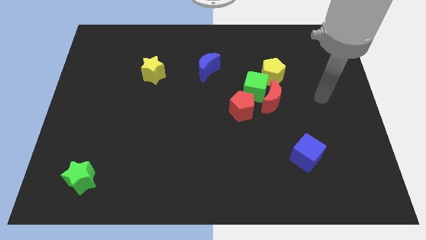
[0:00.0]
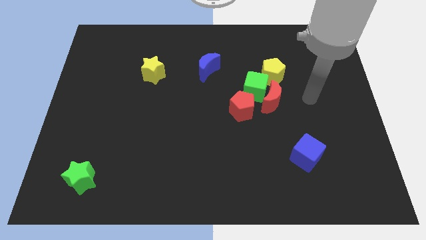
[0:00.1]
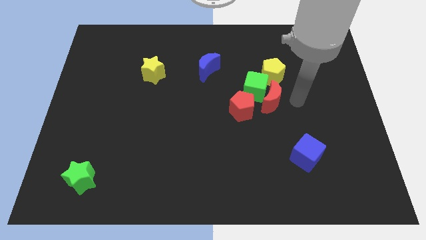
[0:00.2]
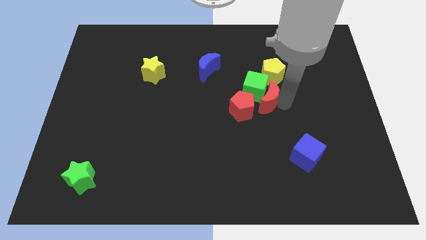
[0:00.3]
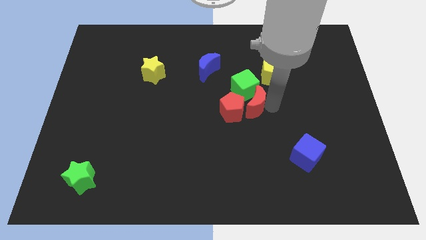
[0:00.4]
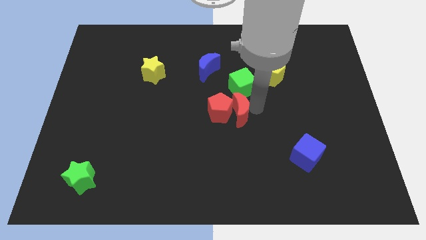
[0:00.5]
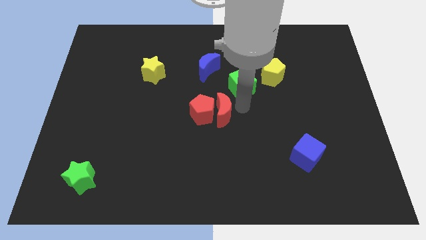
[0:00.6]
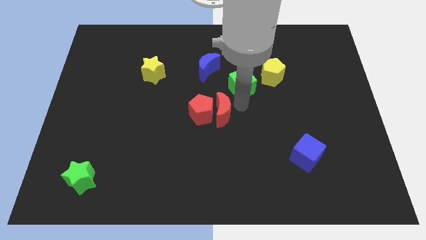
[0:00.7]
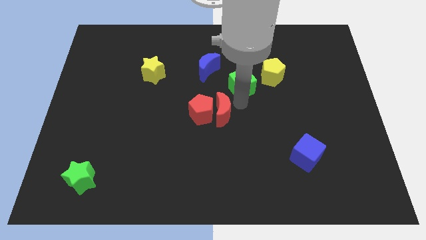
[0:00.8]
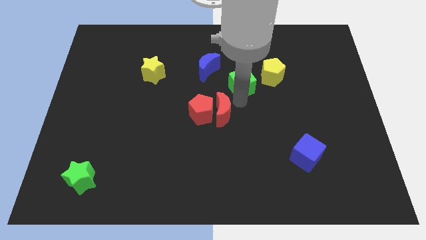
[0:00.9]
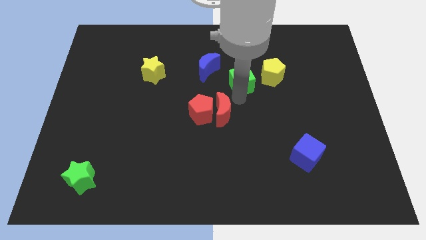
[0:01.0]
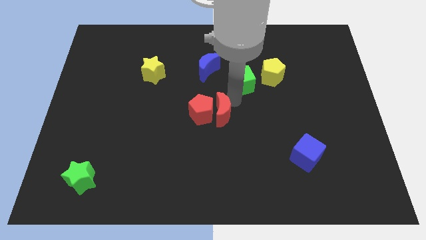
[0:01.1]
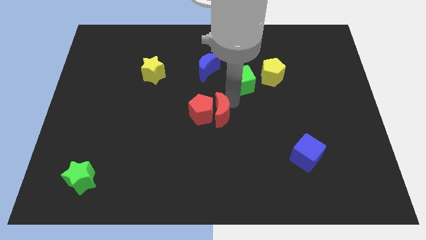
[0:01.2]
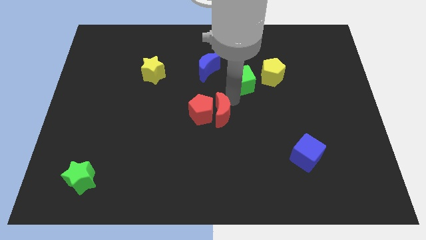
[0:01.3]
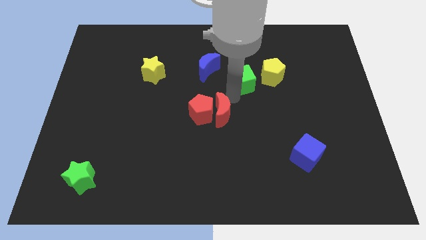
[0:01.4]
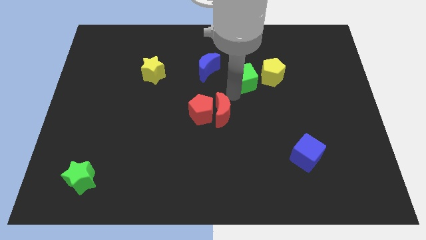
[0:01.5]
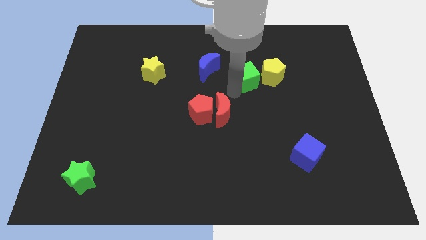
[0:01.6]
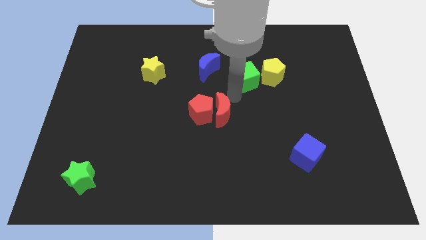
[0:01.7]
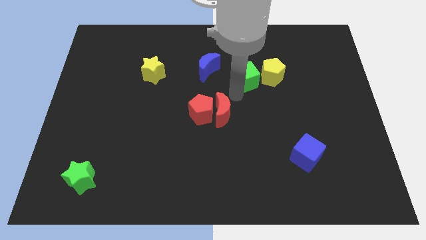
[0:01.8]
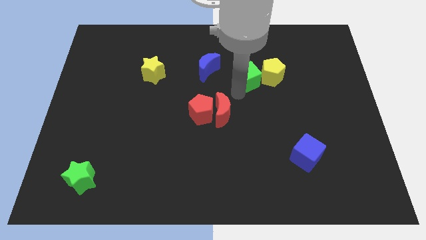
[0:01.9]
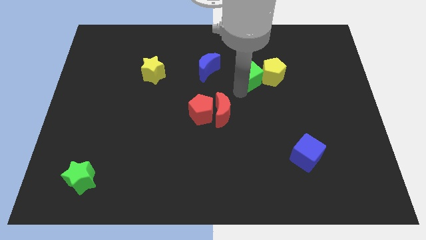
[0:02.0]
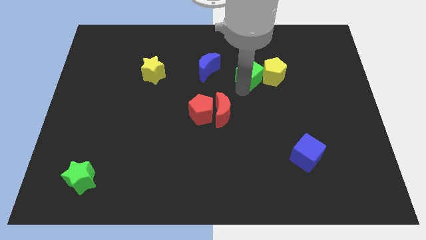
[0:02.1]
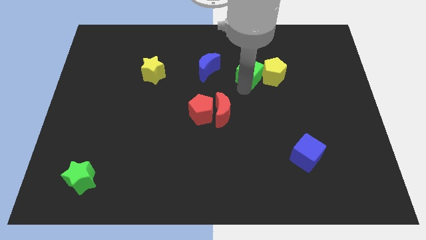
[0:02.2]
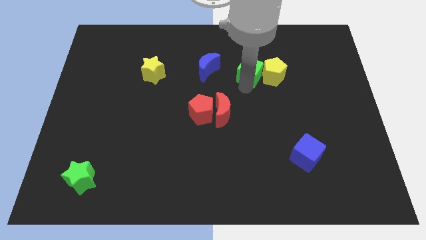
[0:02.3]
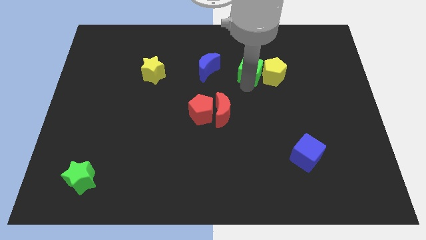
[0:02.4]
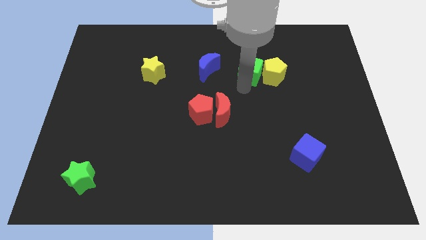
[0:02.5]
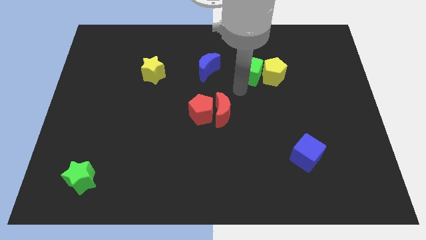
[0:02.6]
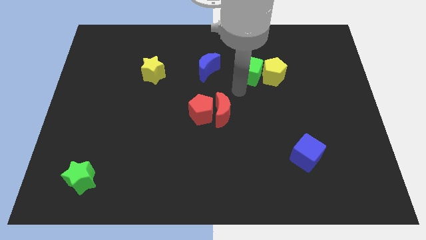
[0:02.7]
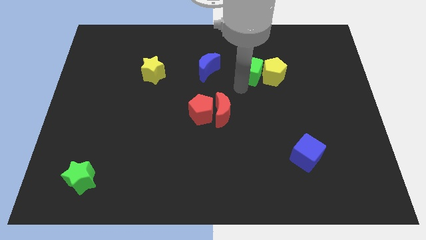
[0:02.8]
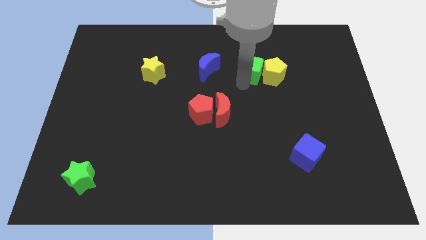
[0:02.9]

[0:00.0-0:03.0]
move the green cube away from the group of blocks

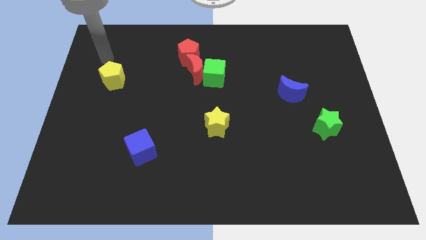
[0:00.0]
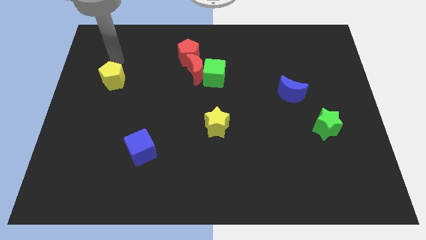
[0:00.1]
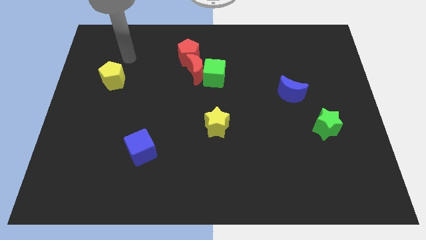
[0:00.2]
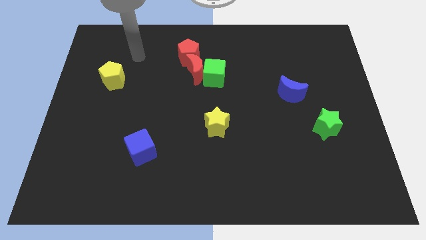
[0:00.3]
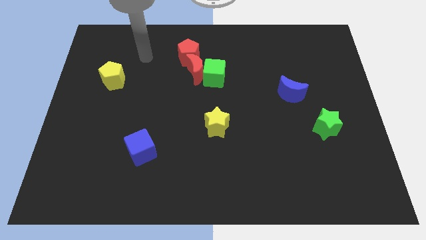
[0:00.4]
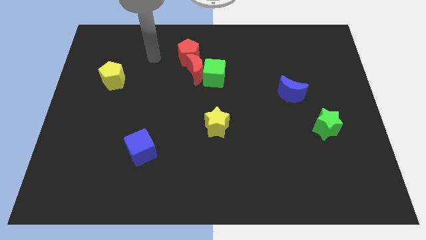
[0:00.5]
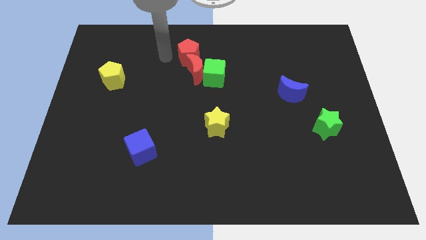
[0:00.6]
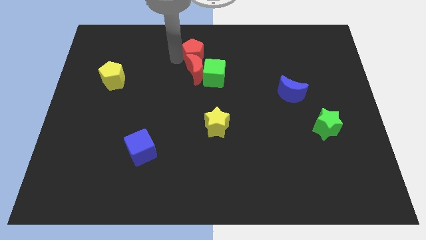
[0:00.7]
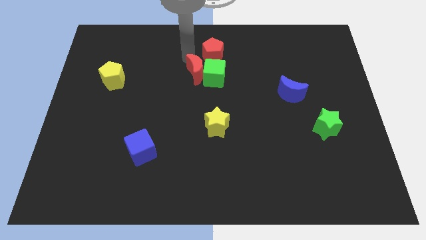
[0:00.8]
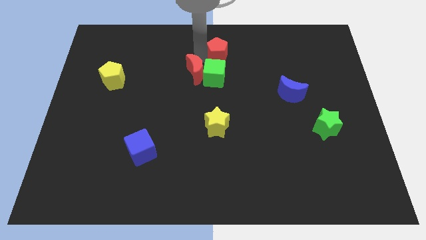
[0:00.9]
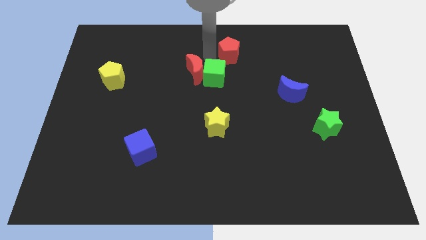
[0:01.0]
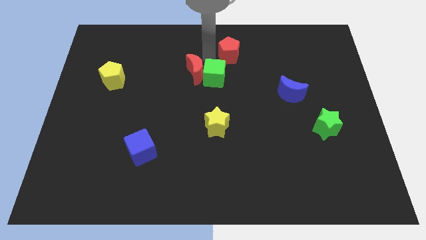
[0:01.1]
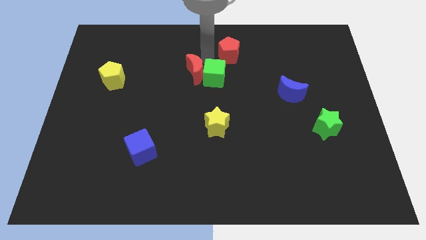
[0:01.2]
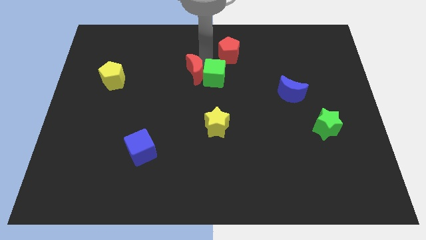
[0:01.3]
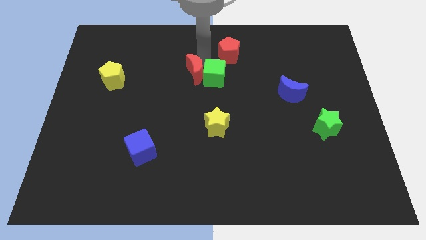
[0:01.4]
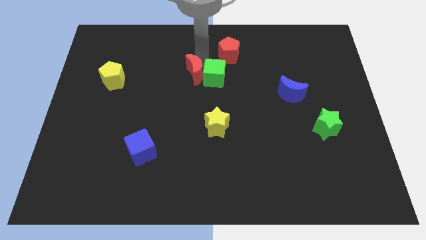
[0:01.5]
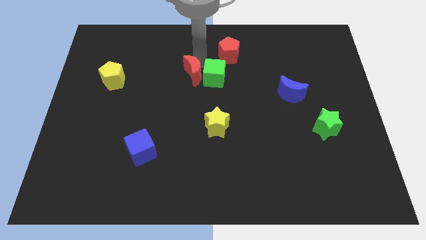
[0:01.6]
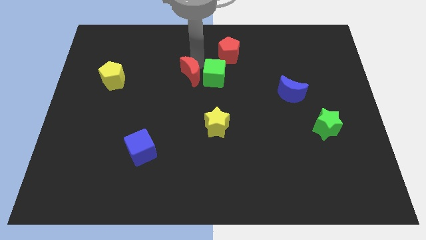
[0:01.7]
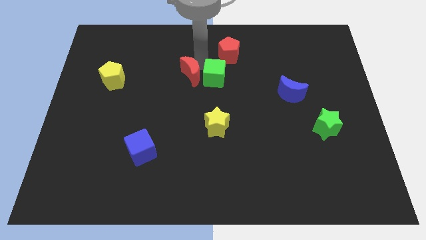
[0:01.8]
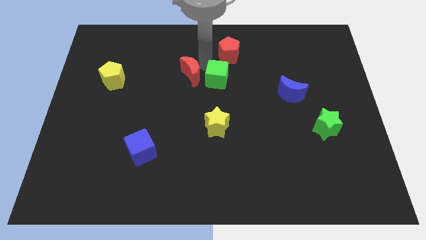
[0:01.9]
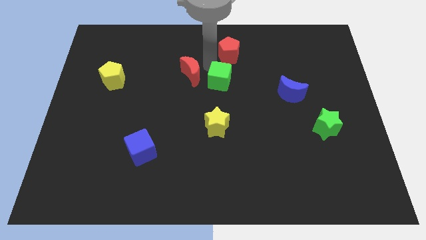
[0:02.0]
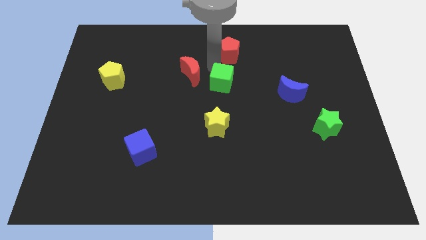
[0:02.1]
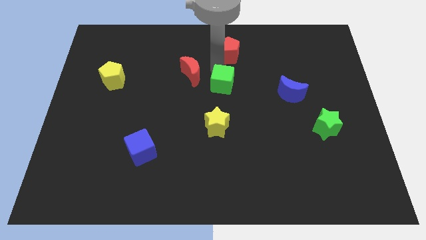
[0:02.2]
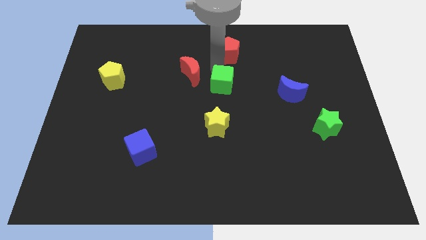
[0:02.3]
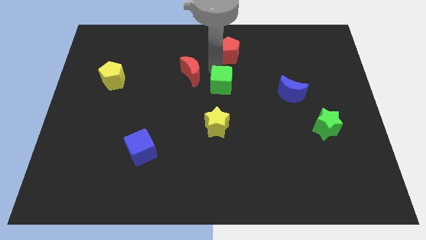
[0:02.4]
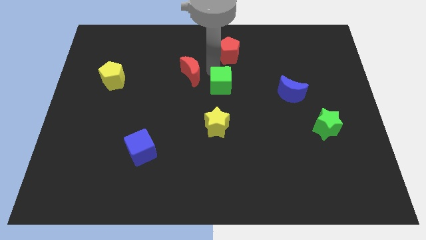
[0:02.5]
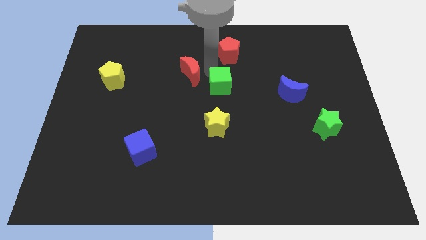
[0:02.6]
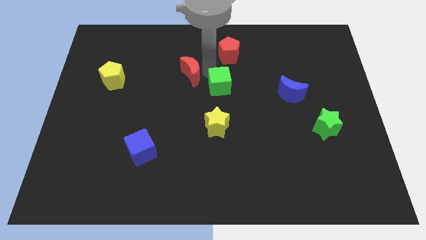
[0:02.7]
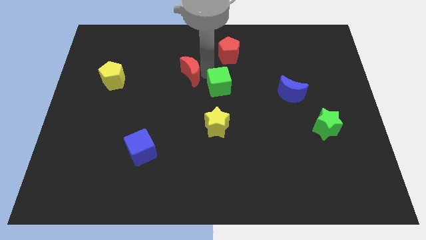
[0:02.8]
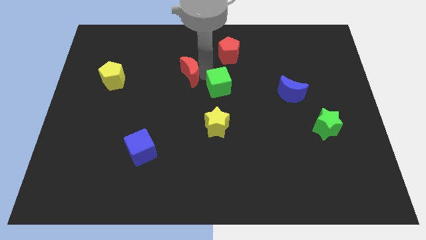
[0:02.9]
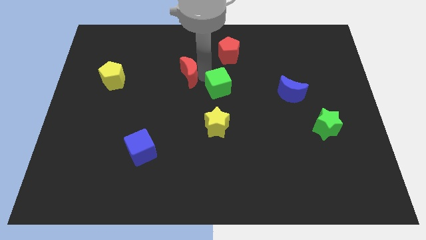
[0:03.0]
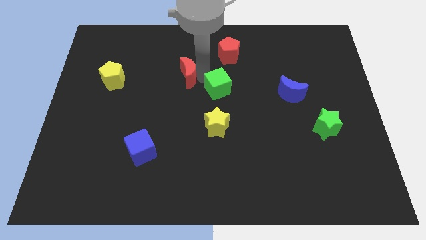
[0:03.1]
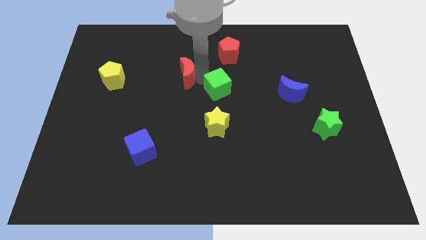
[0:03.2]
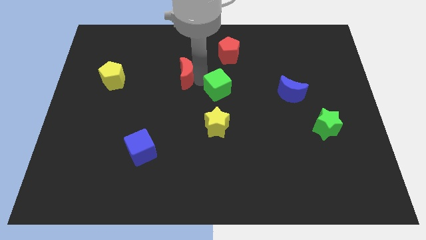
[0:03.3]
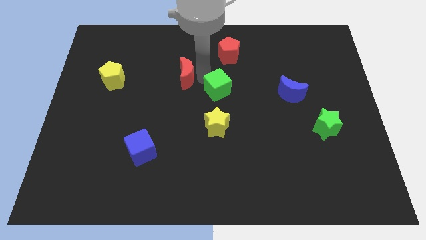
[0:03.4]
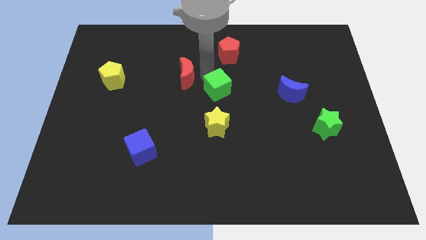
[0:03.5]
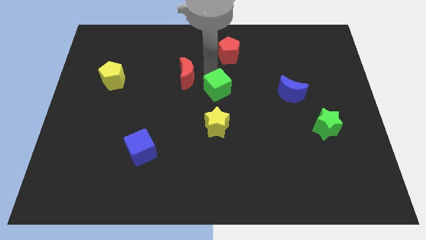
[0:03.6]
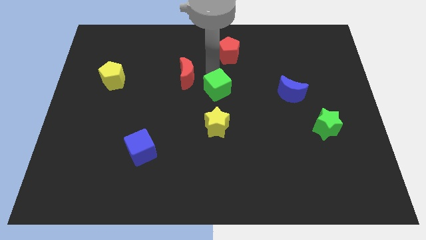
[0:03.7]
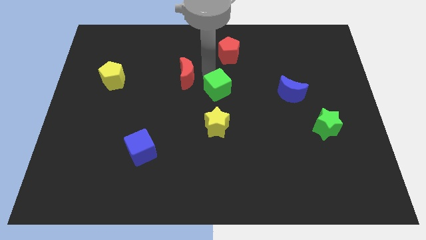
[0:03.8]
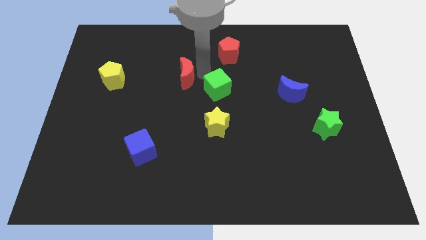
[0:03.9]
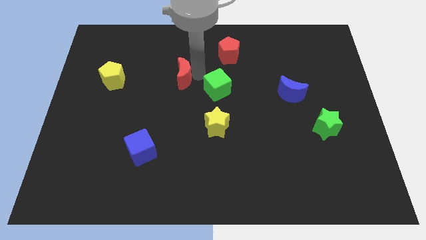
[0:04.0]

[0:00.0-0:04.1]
separate the red moon from the green cube and red pentagon

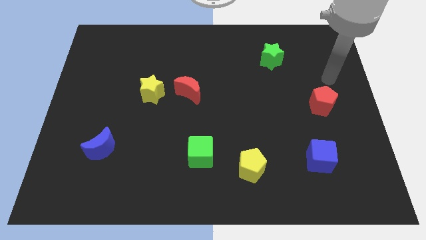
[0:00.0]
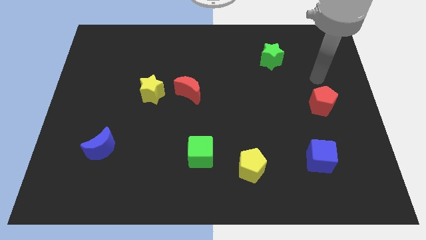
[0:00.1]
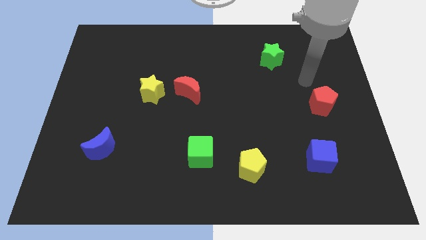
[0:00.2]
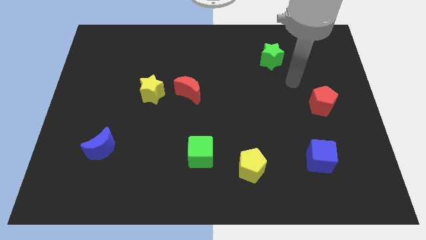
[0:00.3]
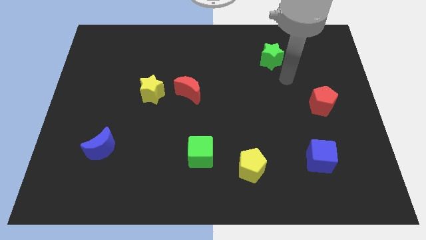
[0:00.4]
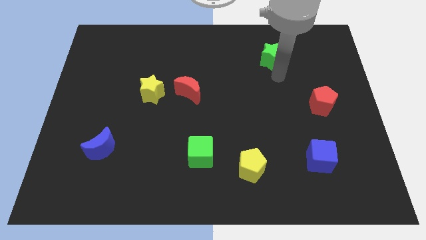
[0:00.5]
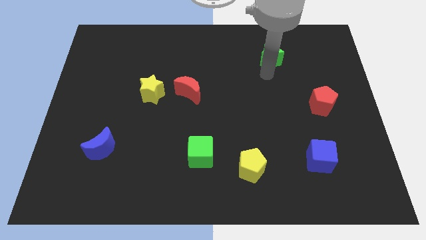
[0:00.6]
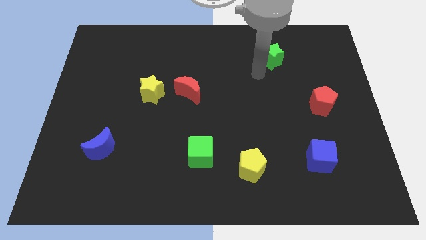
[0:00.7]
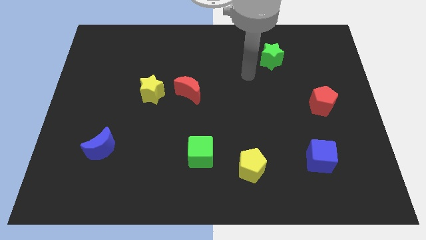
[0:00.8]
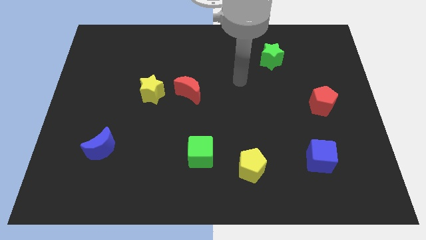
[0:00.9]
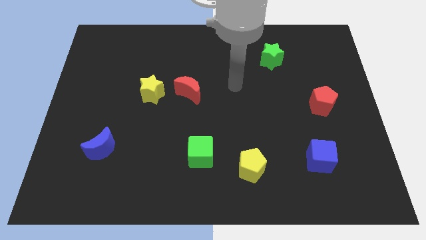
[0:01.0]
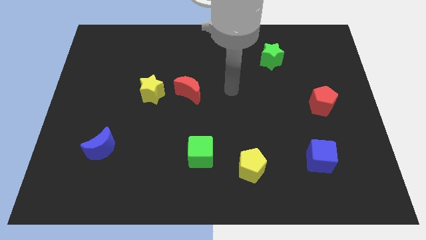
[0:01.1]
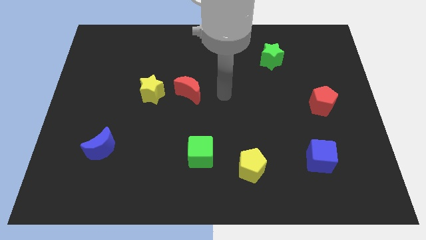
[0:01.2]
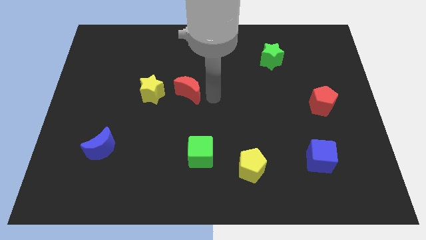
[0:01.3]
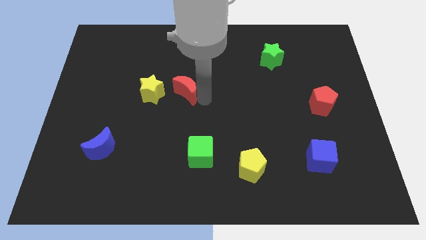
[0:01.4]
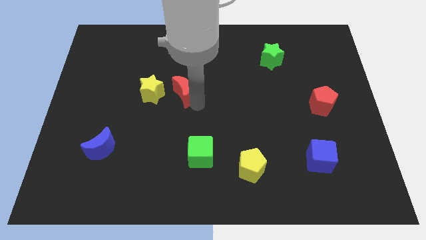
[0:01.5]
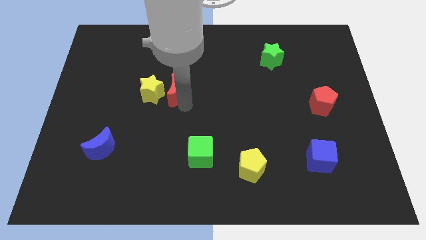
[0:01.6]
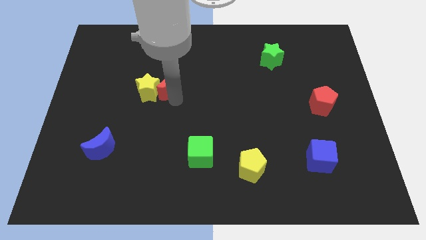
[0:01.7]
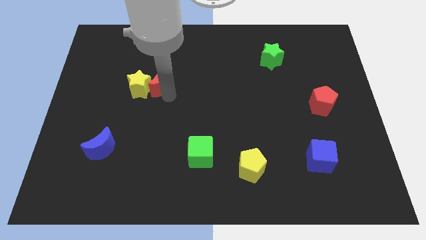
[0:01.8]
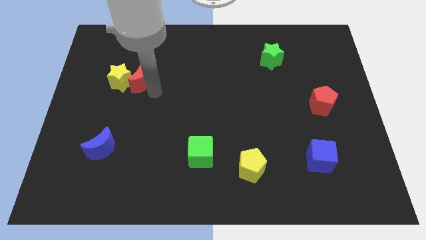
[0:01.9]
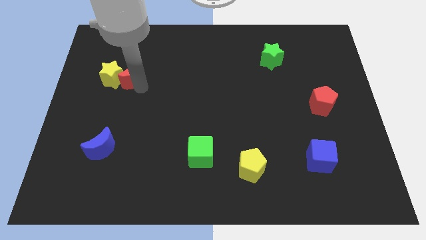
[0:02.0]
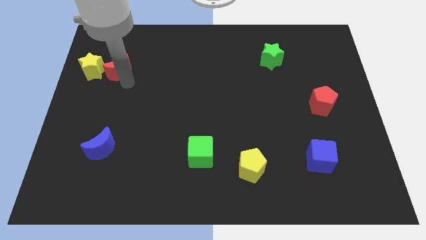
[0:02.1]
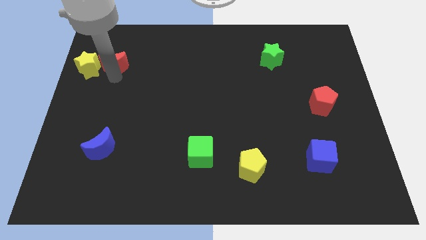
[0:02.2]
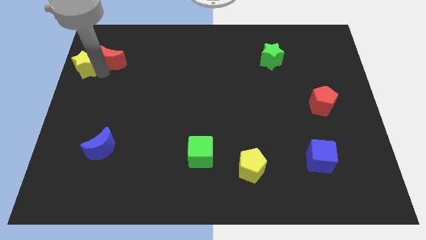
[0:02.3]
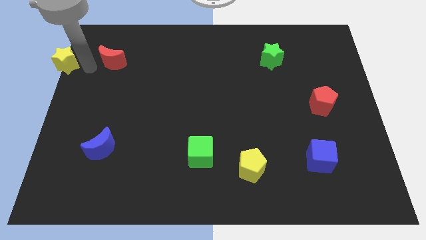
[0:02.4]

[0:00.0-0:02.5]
move the red moon away from the yellow star
